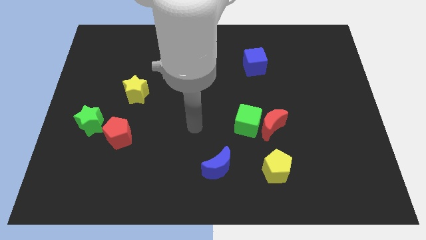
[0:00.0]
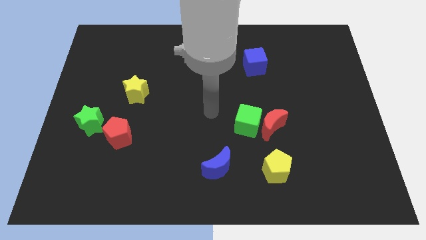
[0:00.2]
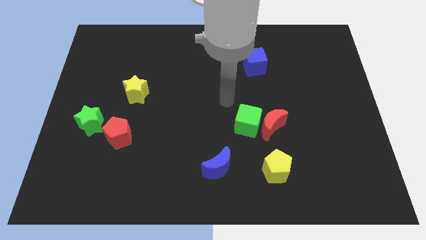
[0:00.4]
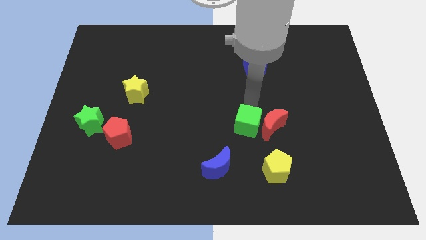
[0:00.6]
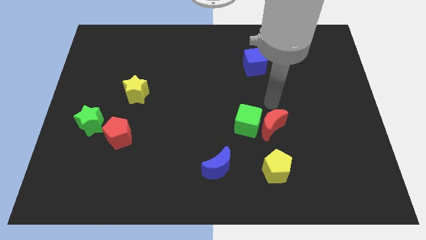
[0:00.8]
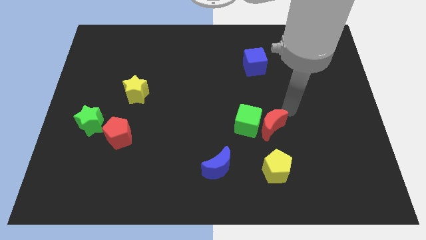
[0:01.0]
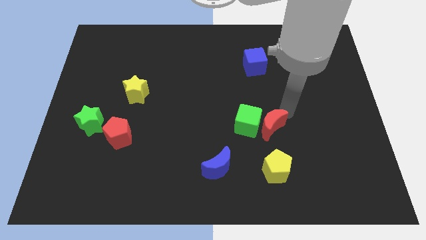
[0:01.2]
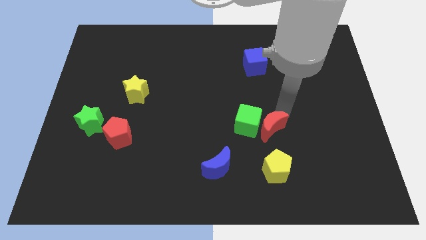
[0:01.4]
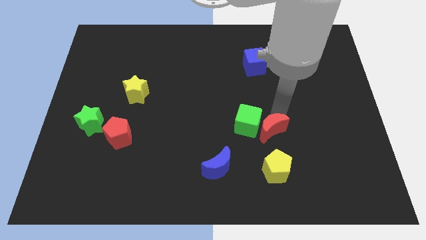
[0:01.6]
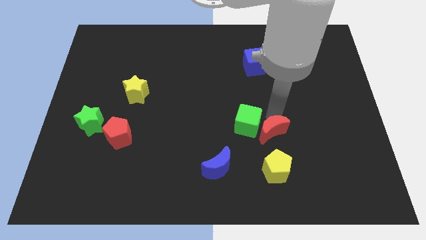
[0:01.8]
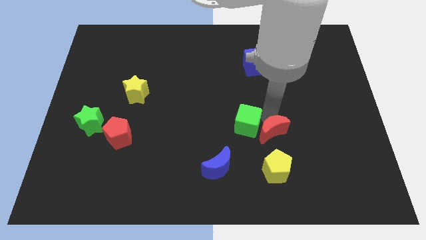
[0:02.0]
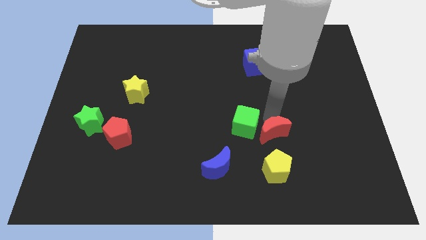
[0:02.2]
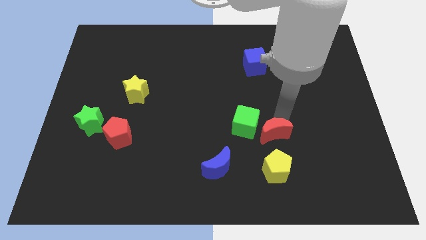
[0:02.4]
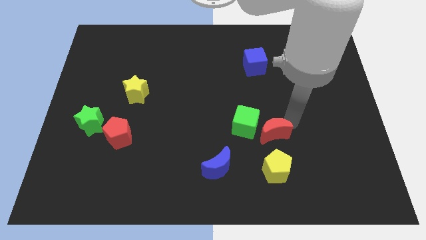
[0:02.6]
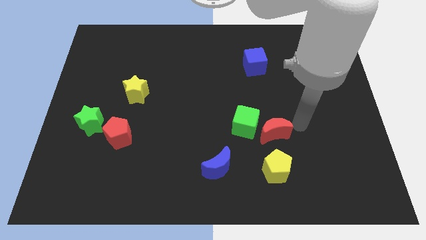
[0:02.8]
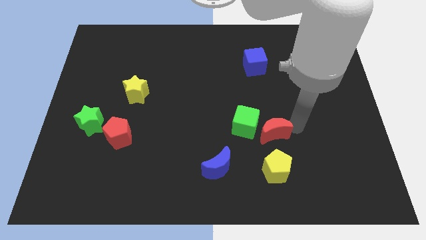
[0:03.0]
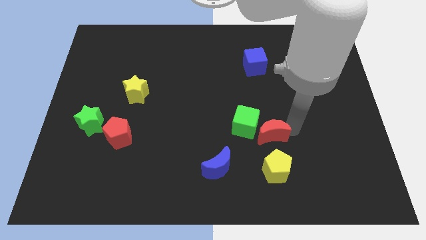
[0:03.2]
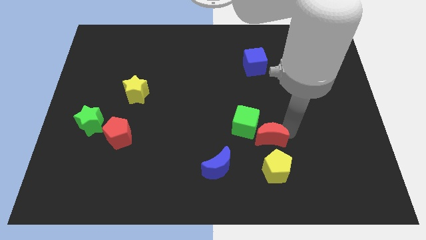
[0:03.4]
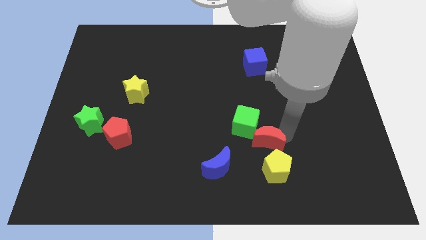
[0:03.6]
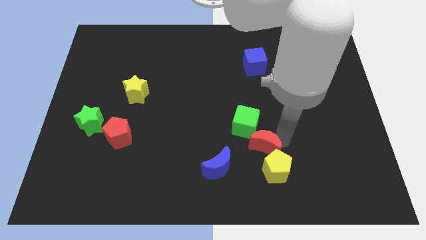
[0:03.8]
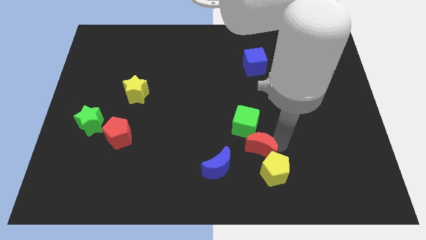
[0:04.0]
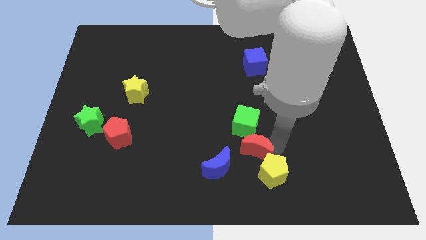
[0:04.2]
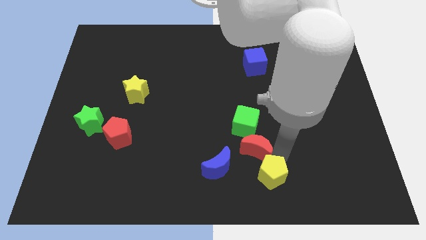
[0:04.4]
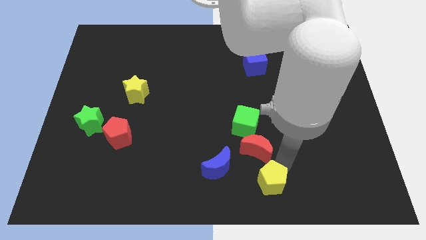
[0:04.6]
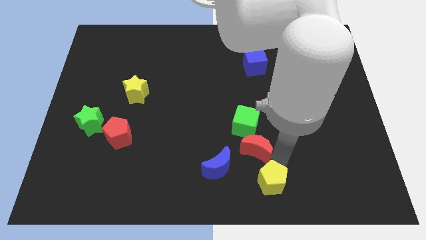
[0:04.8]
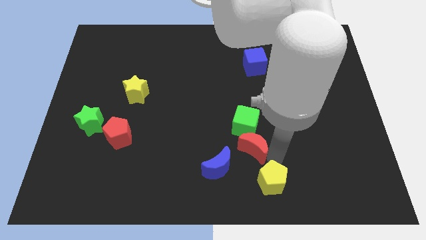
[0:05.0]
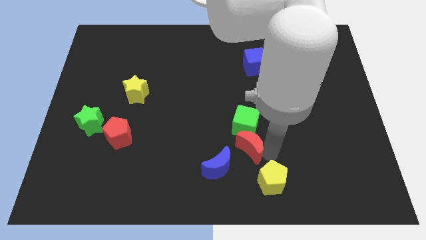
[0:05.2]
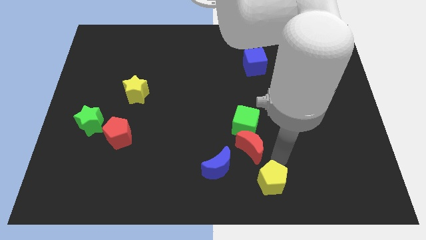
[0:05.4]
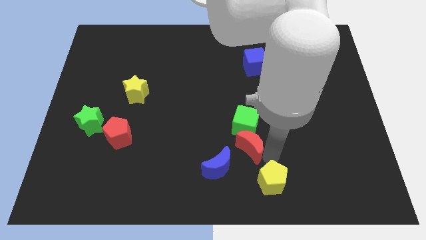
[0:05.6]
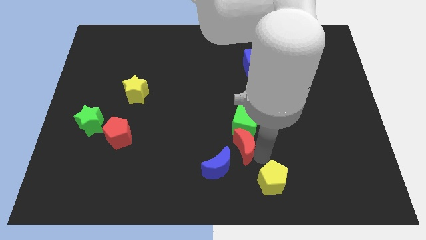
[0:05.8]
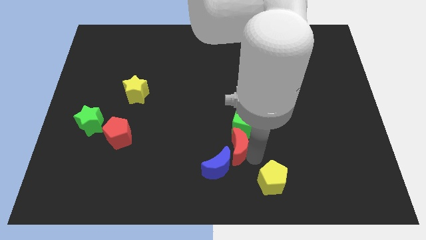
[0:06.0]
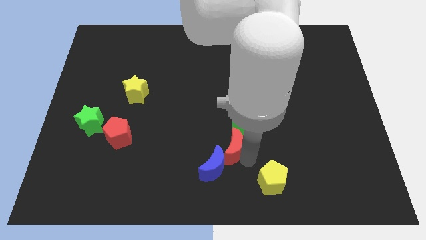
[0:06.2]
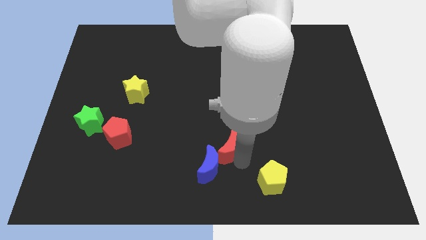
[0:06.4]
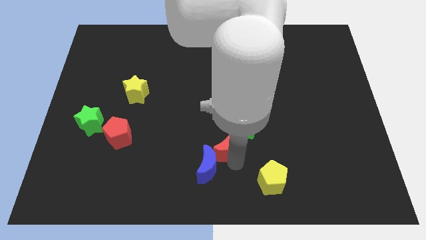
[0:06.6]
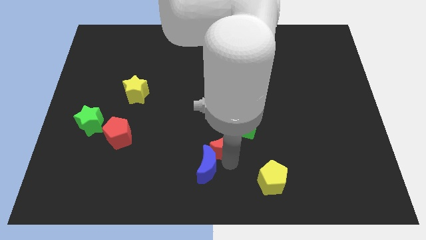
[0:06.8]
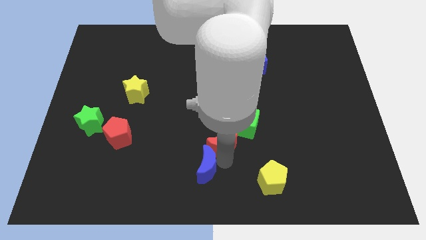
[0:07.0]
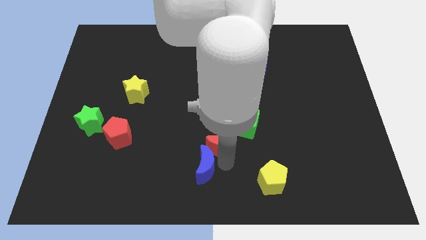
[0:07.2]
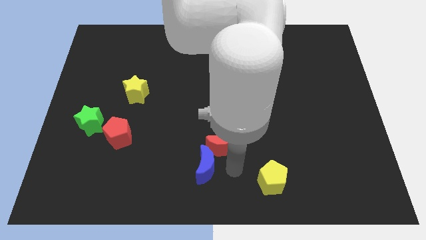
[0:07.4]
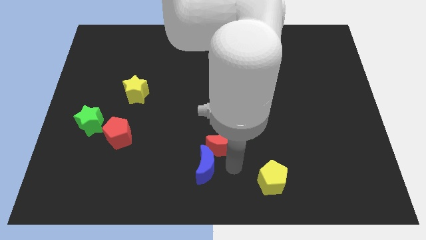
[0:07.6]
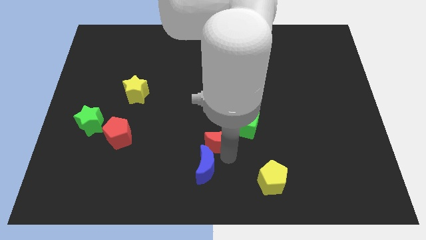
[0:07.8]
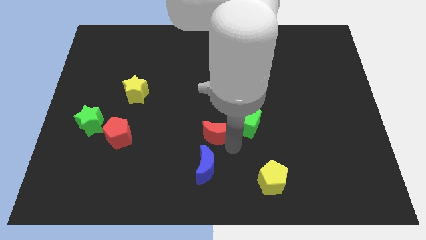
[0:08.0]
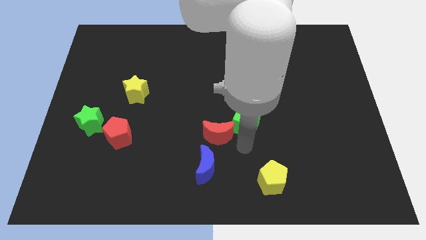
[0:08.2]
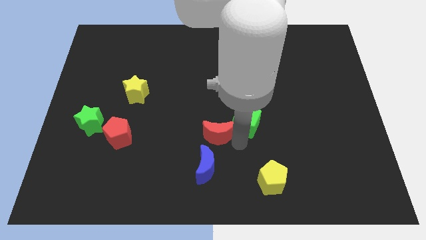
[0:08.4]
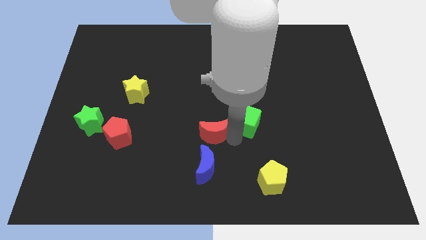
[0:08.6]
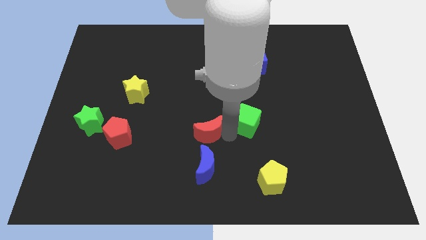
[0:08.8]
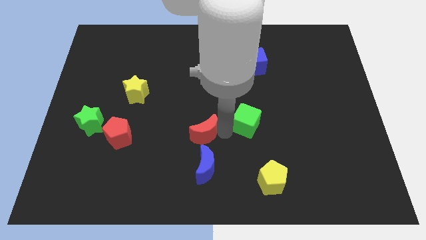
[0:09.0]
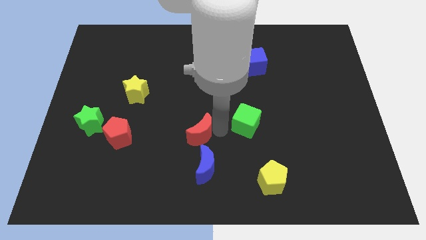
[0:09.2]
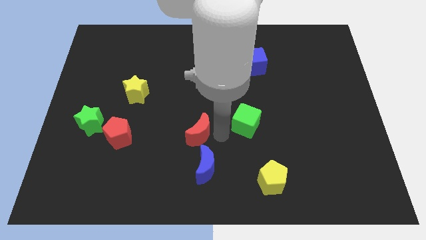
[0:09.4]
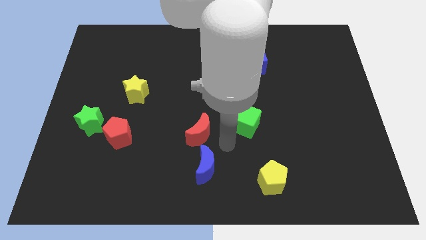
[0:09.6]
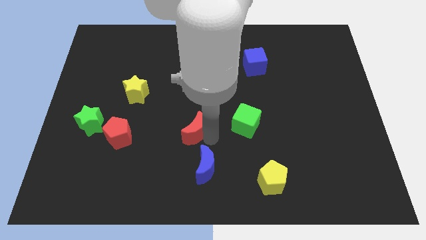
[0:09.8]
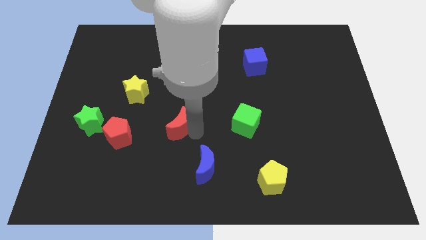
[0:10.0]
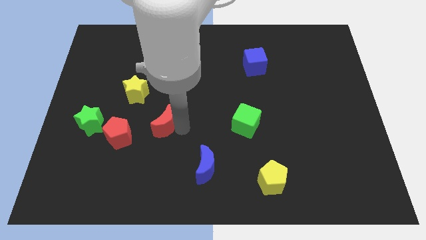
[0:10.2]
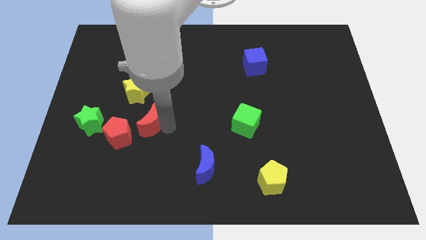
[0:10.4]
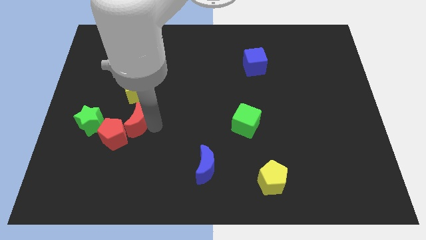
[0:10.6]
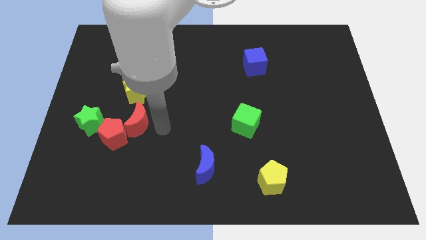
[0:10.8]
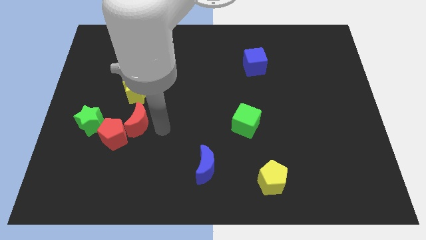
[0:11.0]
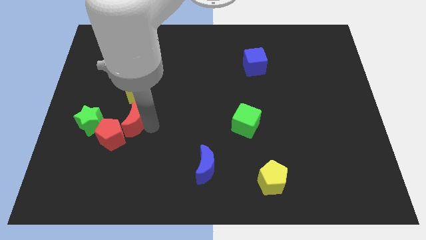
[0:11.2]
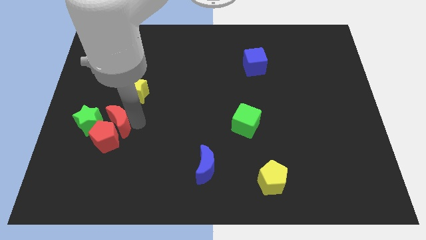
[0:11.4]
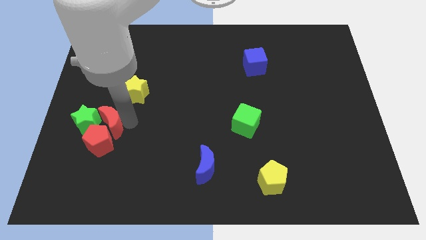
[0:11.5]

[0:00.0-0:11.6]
move the red moon close to the green star

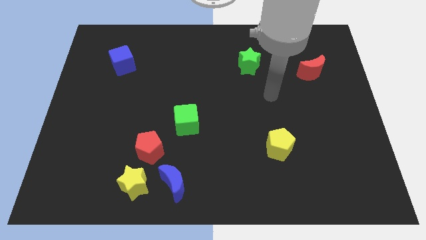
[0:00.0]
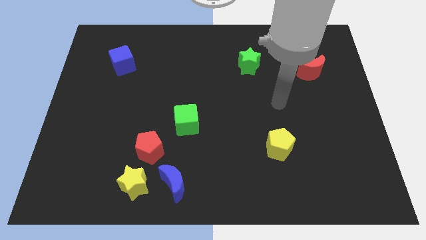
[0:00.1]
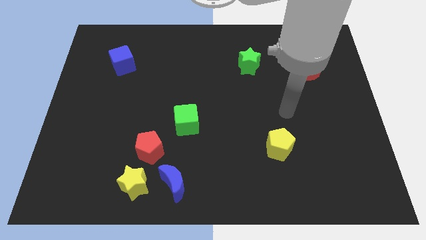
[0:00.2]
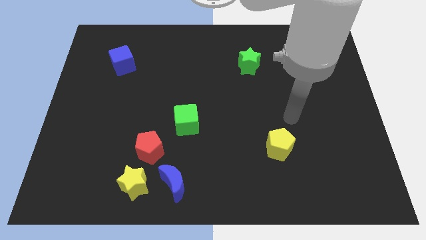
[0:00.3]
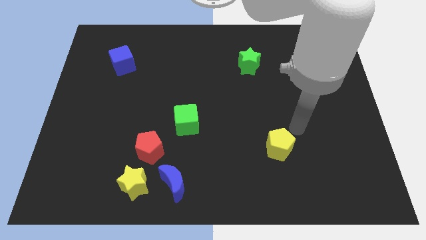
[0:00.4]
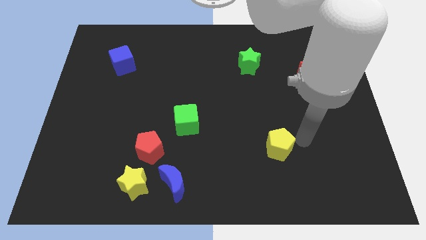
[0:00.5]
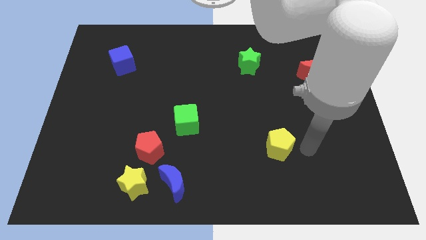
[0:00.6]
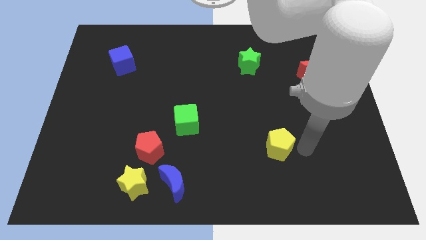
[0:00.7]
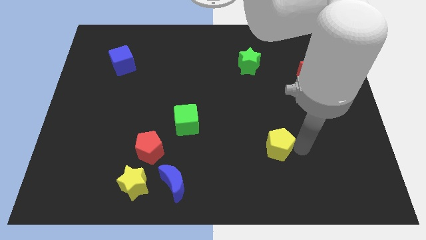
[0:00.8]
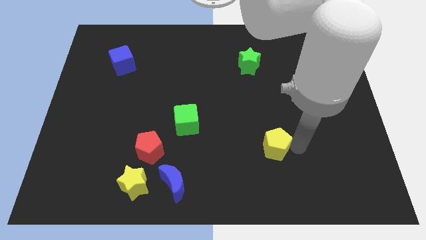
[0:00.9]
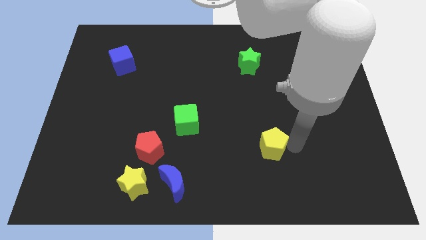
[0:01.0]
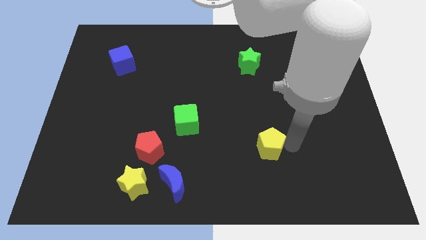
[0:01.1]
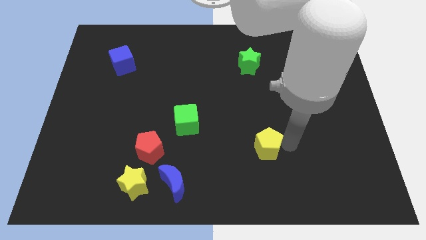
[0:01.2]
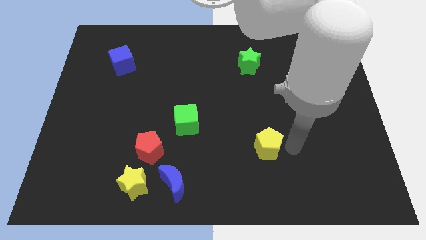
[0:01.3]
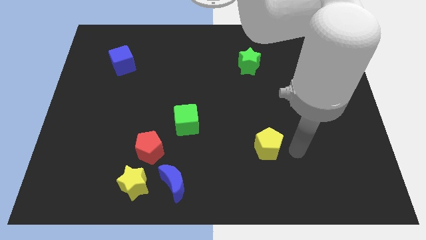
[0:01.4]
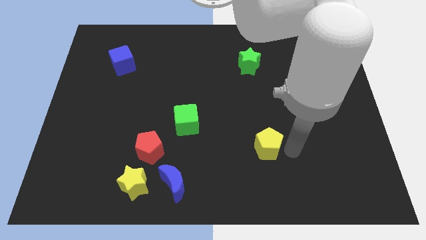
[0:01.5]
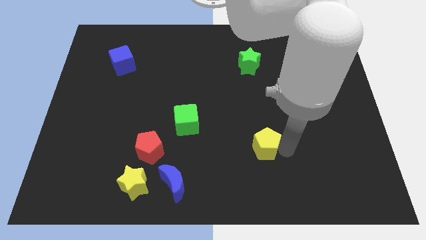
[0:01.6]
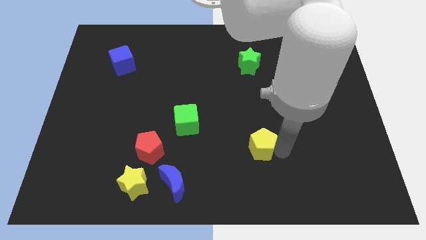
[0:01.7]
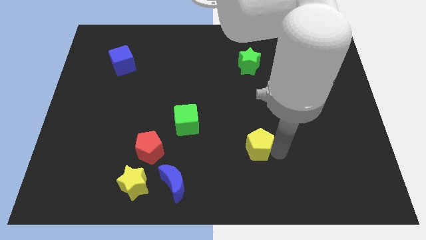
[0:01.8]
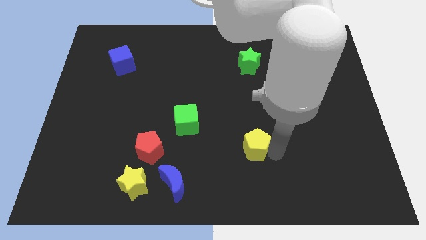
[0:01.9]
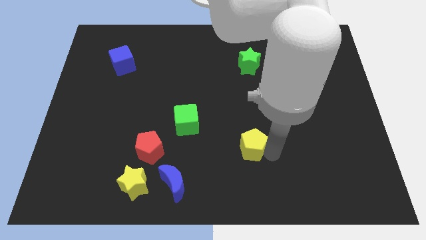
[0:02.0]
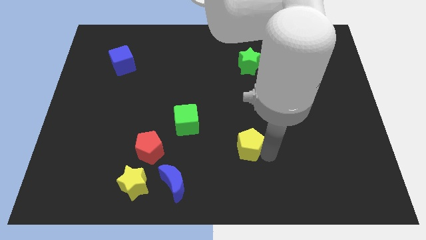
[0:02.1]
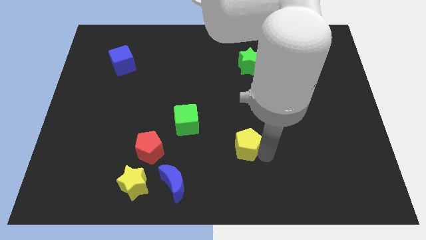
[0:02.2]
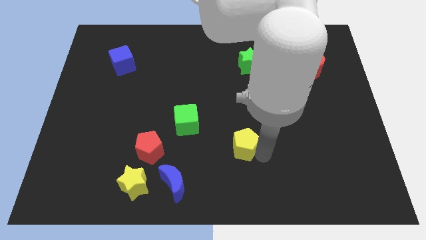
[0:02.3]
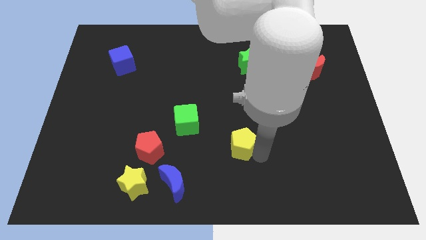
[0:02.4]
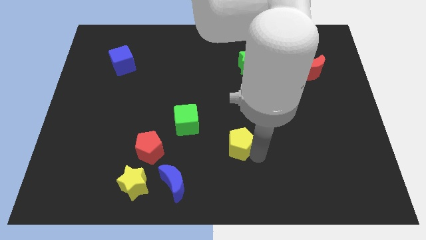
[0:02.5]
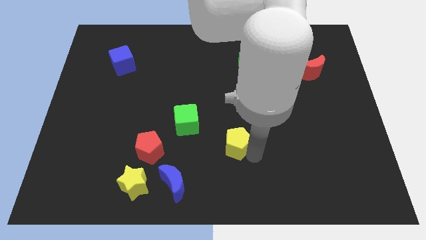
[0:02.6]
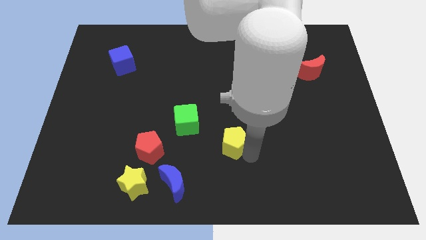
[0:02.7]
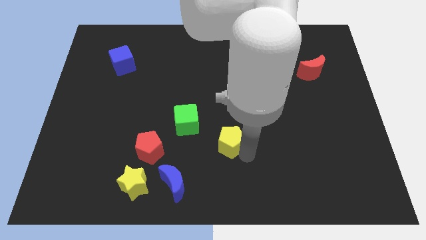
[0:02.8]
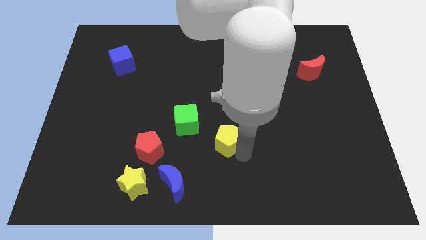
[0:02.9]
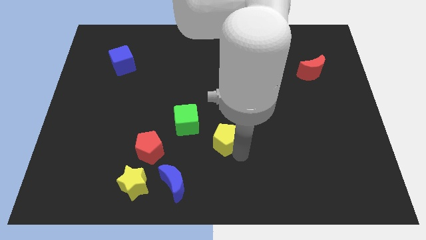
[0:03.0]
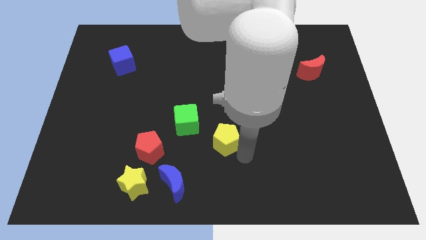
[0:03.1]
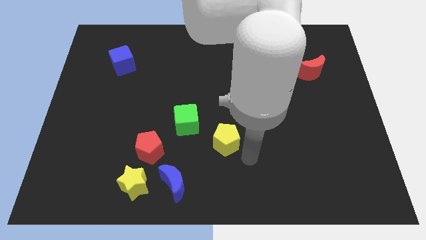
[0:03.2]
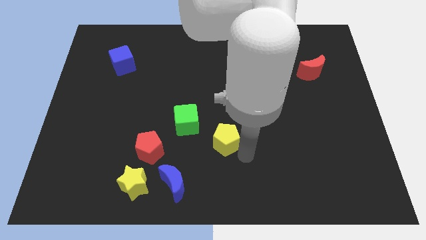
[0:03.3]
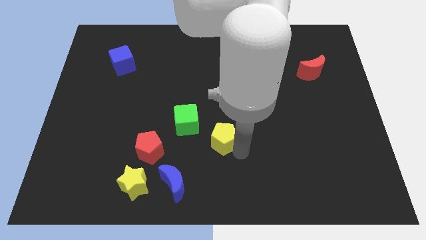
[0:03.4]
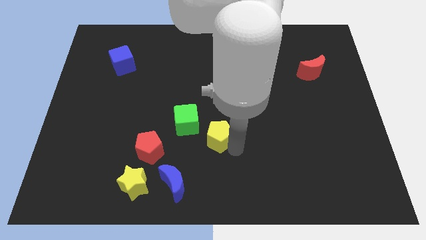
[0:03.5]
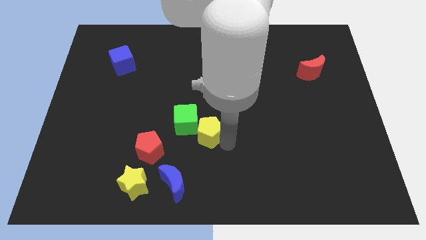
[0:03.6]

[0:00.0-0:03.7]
push the yellow pentagon towards the green cube
